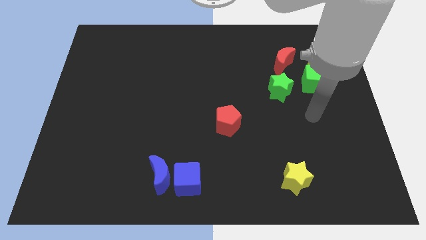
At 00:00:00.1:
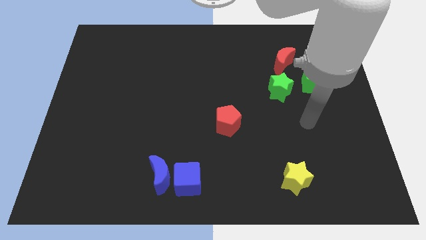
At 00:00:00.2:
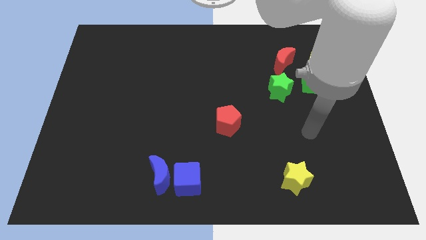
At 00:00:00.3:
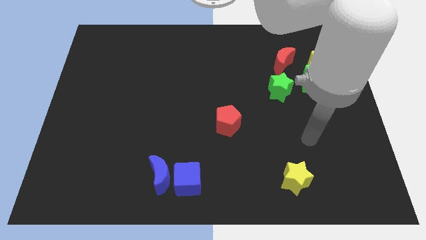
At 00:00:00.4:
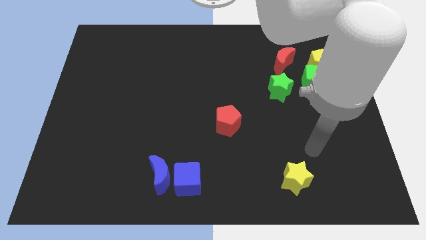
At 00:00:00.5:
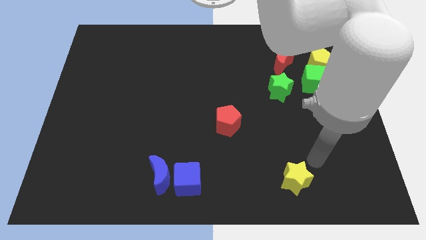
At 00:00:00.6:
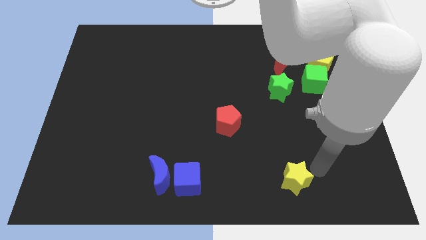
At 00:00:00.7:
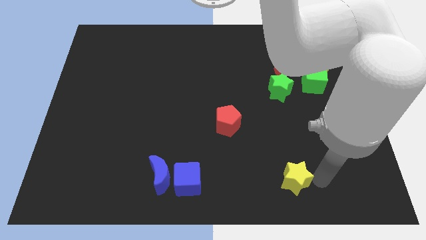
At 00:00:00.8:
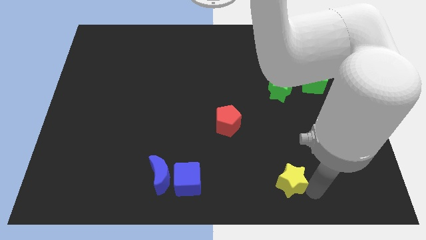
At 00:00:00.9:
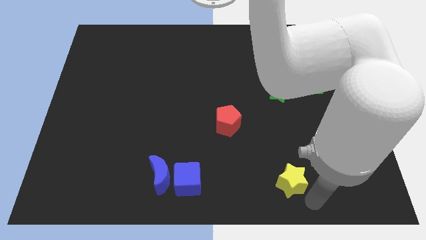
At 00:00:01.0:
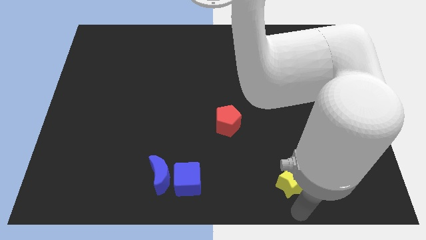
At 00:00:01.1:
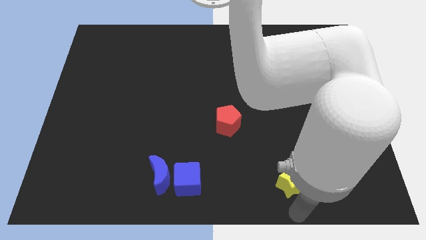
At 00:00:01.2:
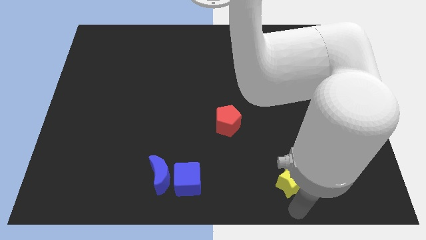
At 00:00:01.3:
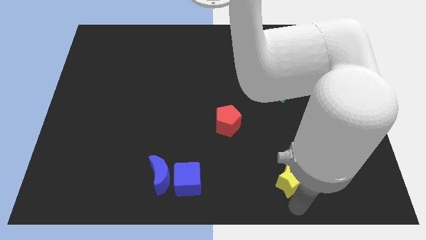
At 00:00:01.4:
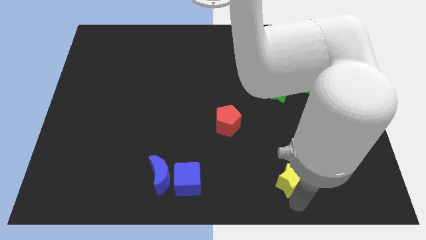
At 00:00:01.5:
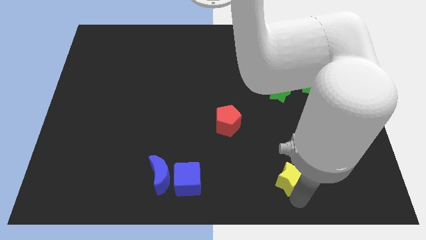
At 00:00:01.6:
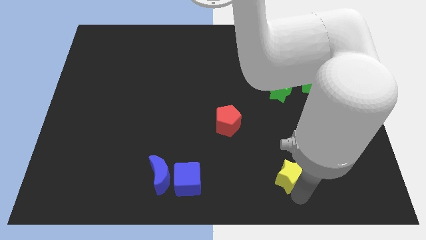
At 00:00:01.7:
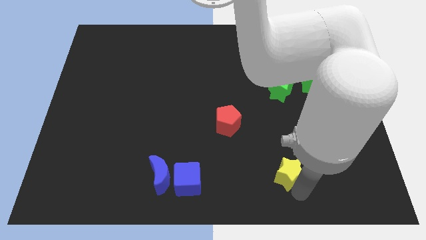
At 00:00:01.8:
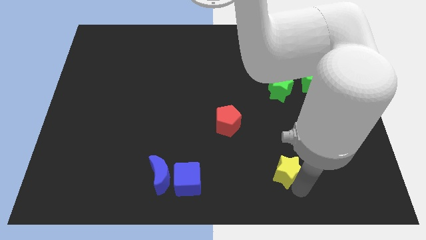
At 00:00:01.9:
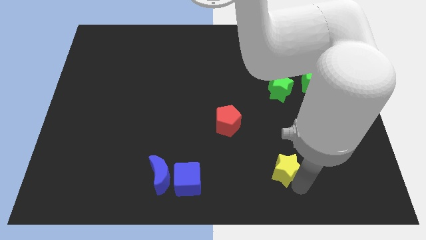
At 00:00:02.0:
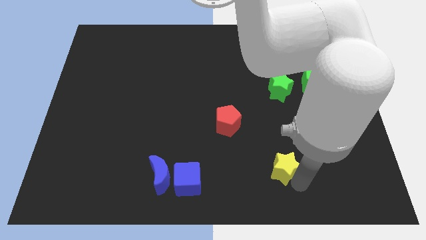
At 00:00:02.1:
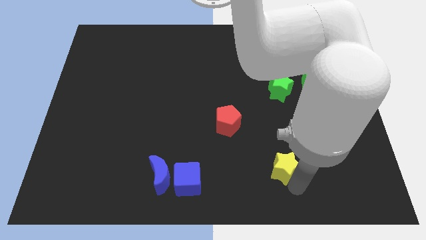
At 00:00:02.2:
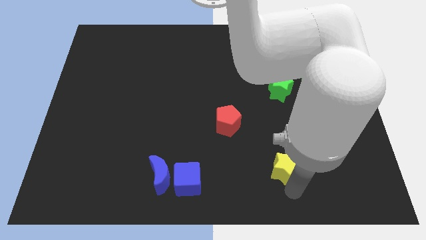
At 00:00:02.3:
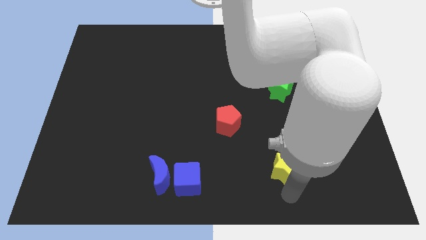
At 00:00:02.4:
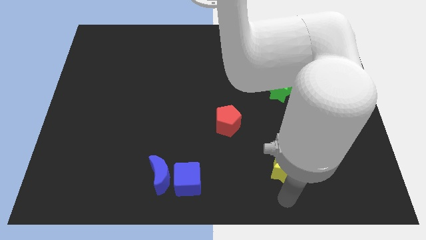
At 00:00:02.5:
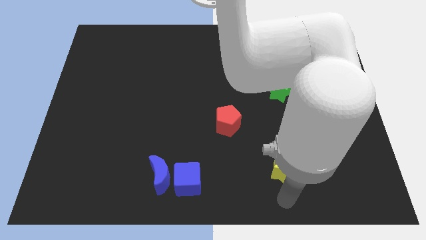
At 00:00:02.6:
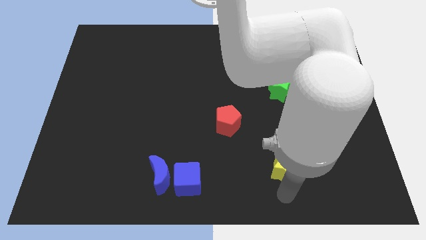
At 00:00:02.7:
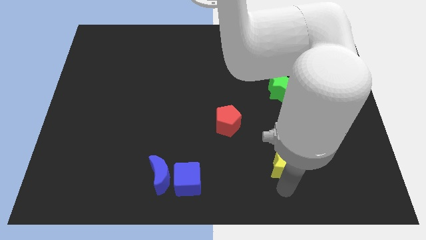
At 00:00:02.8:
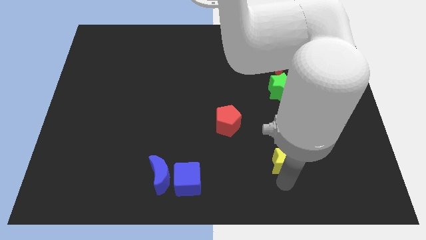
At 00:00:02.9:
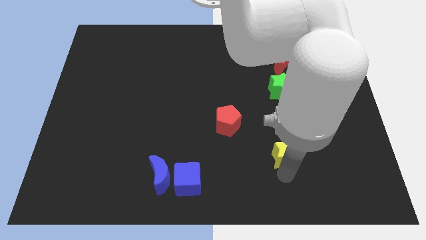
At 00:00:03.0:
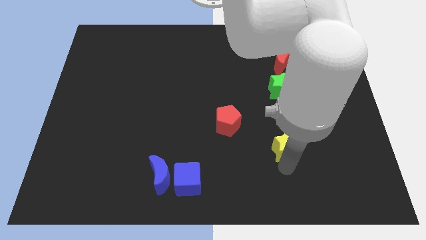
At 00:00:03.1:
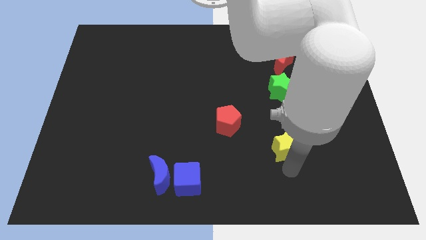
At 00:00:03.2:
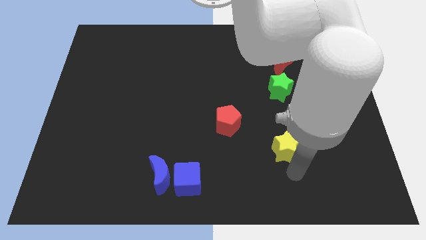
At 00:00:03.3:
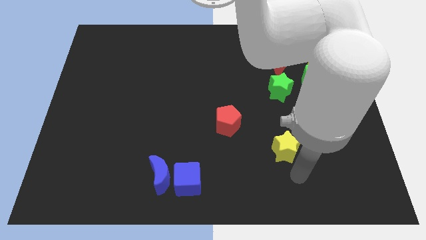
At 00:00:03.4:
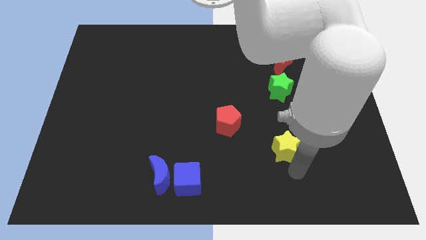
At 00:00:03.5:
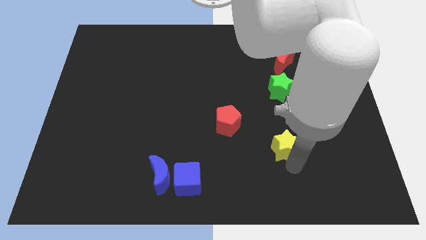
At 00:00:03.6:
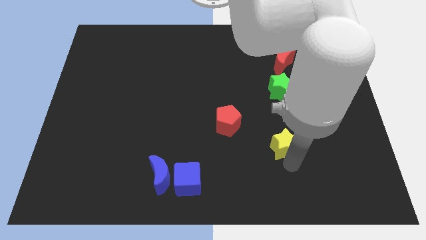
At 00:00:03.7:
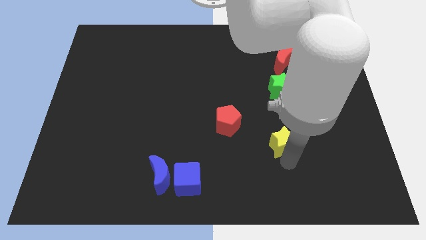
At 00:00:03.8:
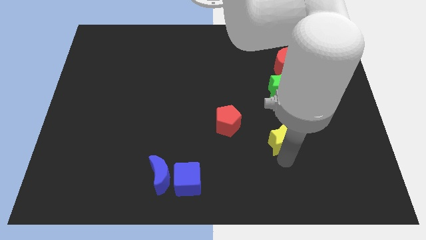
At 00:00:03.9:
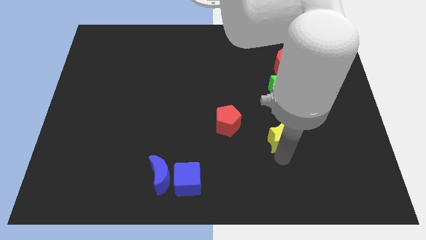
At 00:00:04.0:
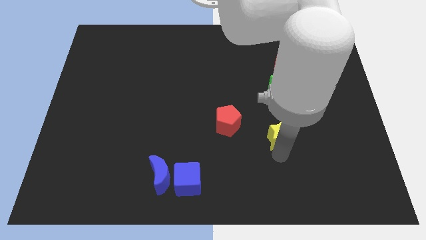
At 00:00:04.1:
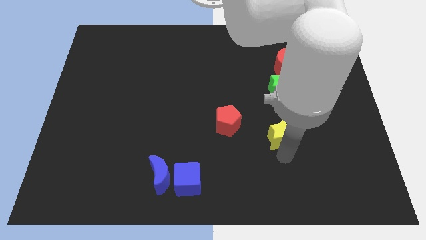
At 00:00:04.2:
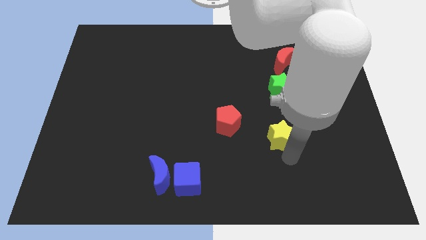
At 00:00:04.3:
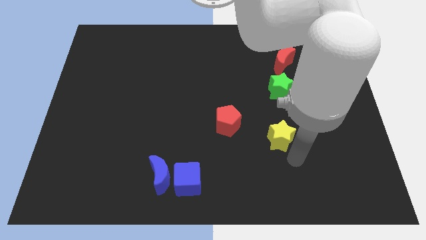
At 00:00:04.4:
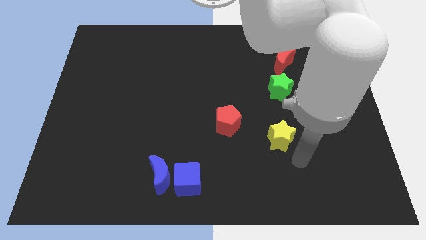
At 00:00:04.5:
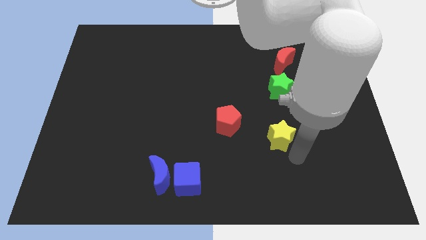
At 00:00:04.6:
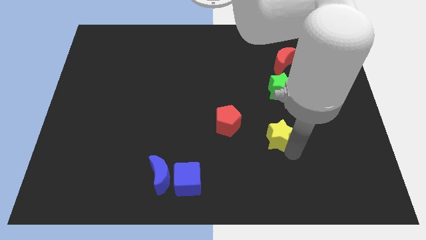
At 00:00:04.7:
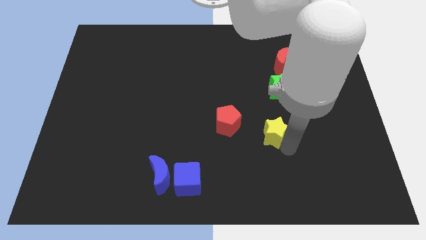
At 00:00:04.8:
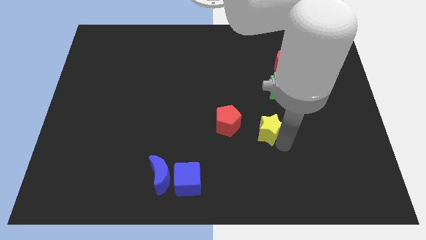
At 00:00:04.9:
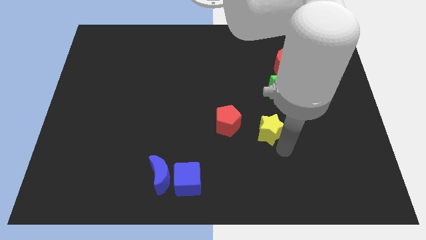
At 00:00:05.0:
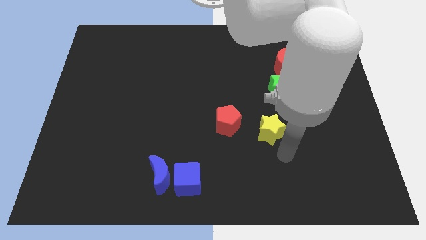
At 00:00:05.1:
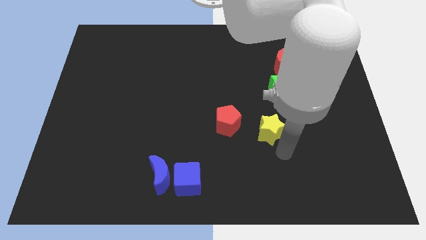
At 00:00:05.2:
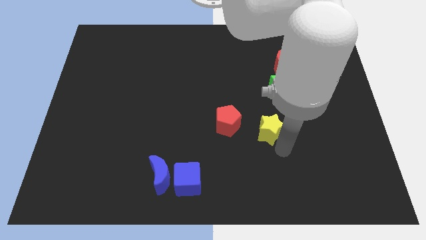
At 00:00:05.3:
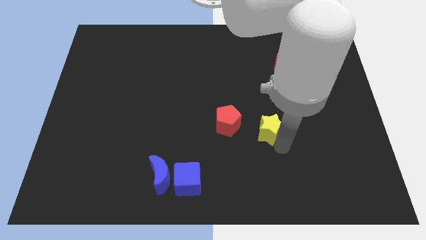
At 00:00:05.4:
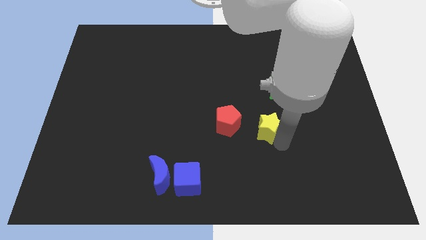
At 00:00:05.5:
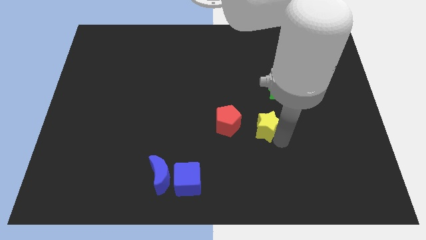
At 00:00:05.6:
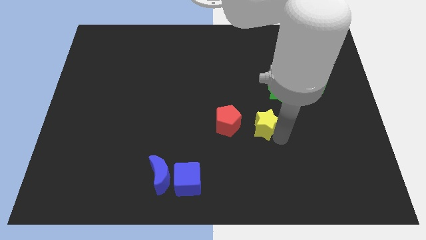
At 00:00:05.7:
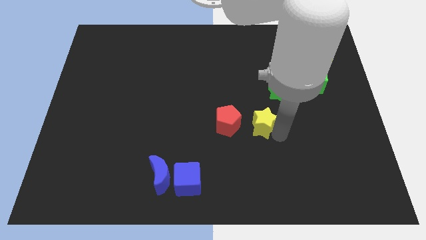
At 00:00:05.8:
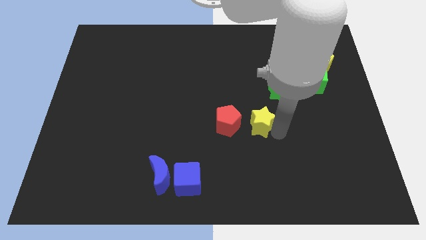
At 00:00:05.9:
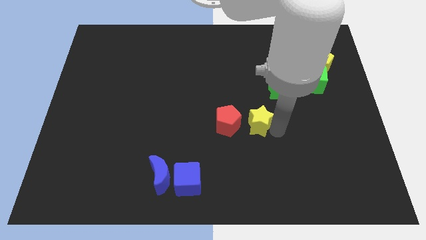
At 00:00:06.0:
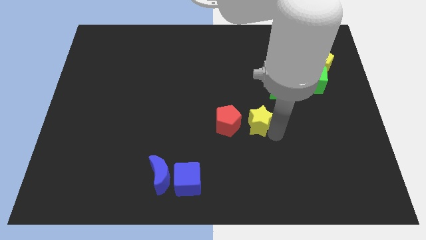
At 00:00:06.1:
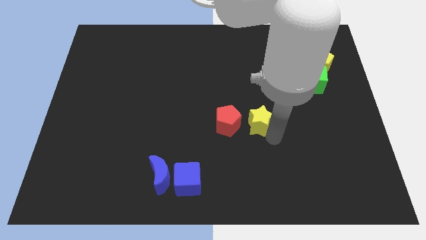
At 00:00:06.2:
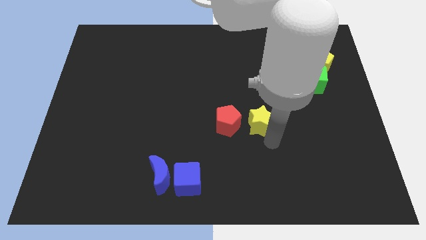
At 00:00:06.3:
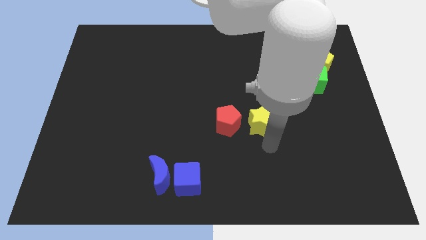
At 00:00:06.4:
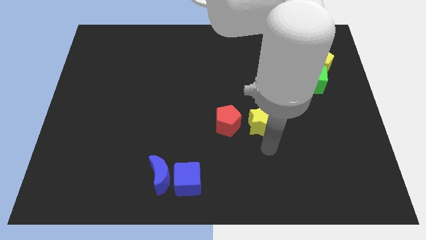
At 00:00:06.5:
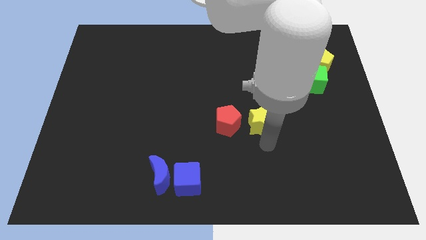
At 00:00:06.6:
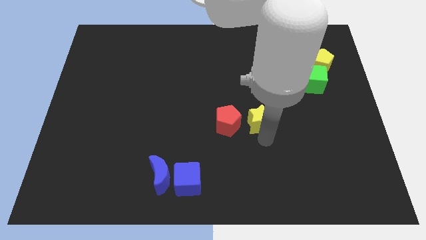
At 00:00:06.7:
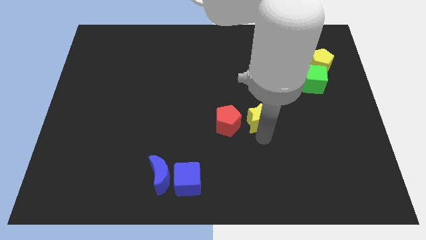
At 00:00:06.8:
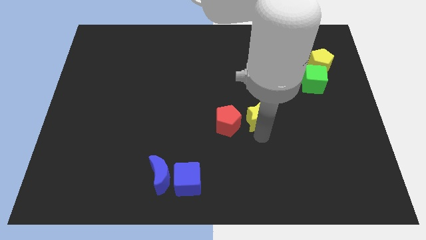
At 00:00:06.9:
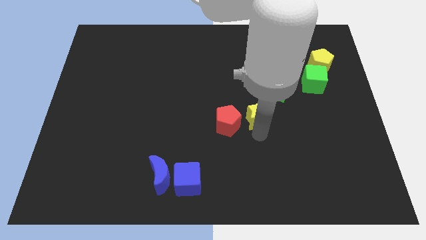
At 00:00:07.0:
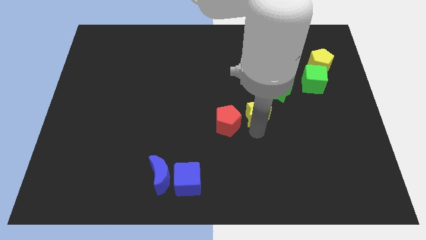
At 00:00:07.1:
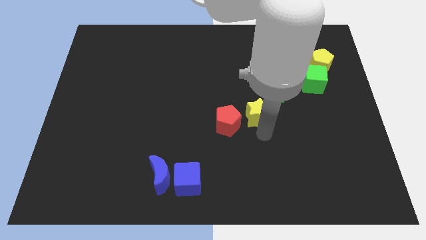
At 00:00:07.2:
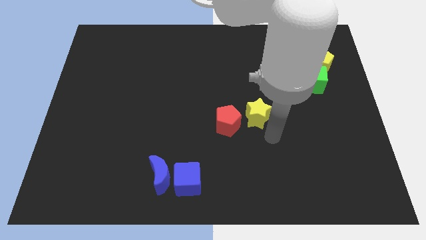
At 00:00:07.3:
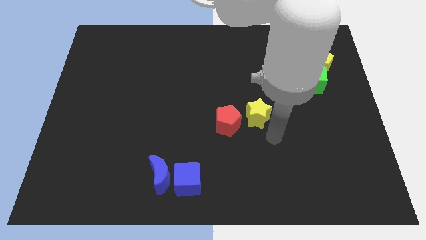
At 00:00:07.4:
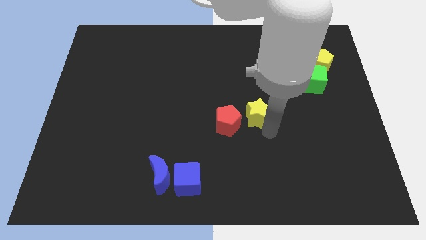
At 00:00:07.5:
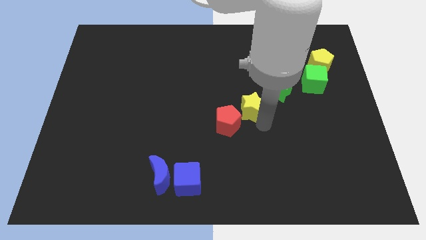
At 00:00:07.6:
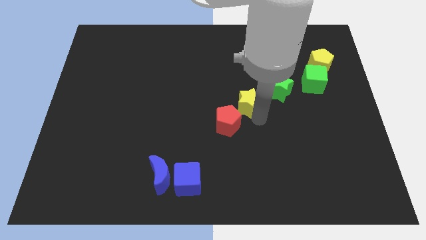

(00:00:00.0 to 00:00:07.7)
slide the yellow star to the left side of the green star
